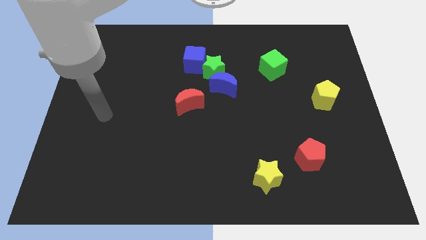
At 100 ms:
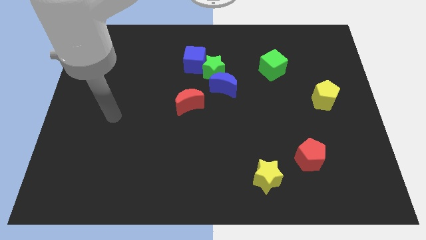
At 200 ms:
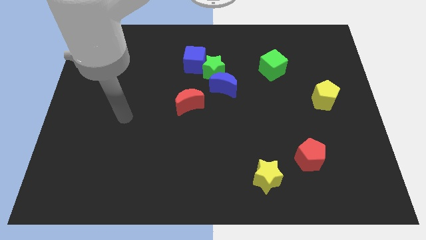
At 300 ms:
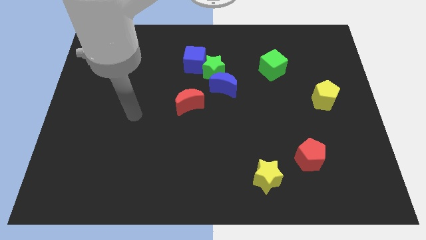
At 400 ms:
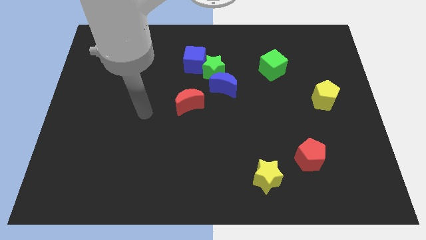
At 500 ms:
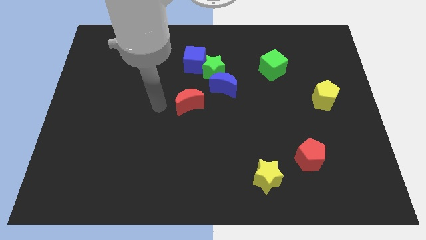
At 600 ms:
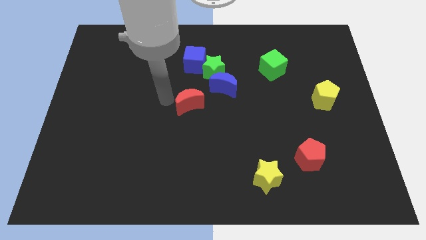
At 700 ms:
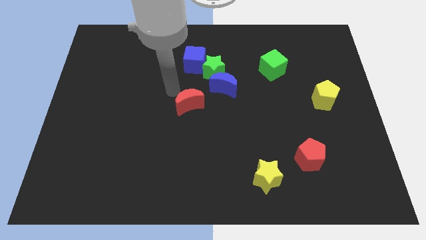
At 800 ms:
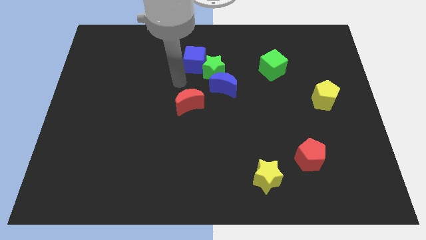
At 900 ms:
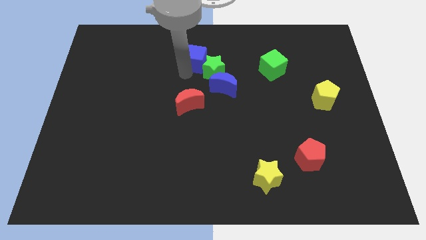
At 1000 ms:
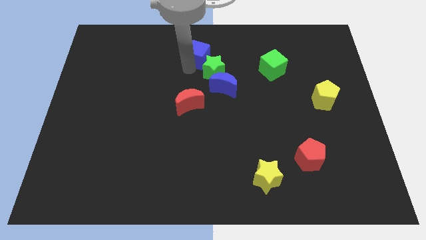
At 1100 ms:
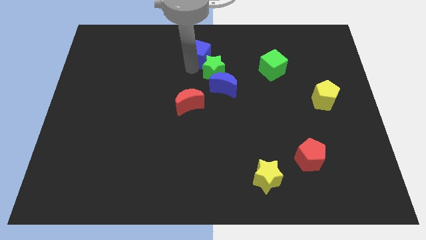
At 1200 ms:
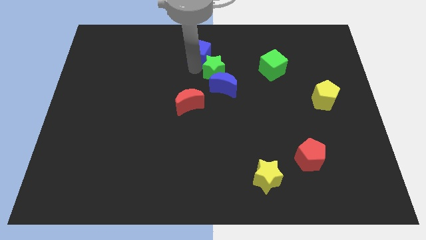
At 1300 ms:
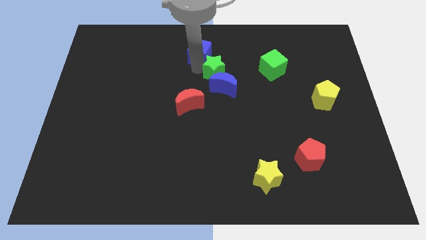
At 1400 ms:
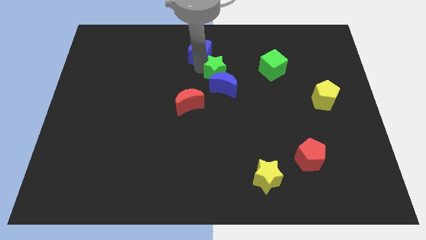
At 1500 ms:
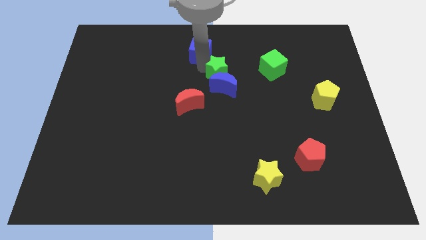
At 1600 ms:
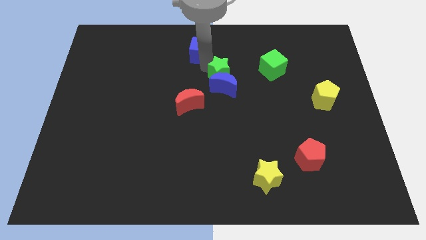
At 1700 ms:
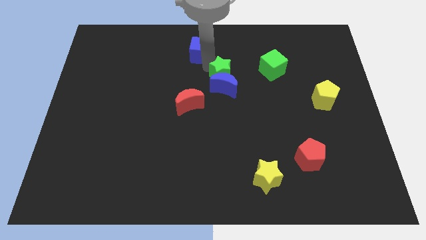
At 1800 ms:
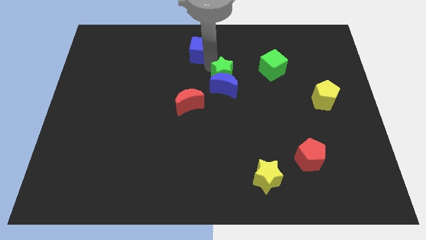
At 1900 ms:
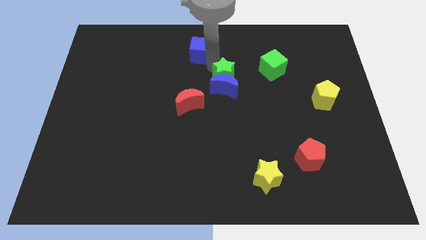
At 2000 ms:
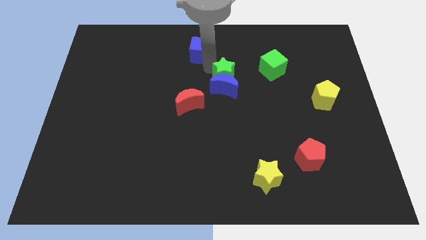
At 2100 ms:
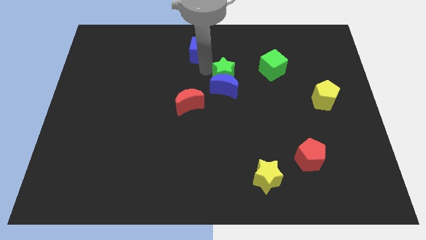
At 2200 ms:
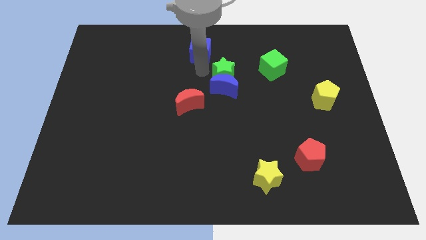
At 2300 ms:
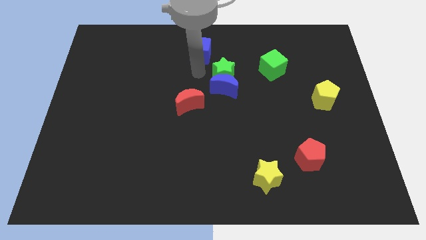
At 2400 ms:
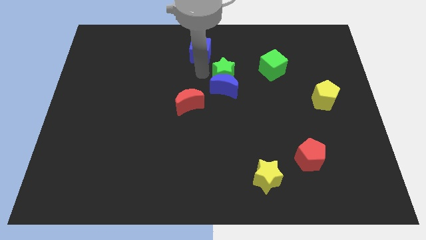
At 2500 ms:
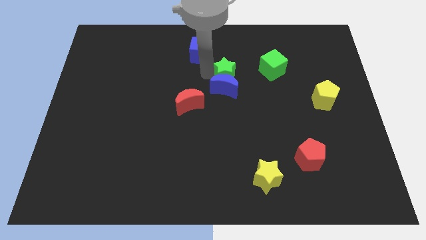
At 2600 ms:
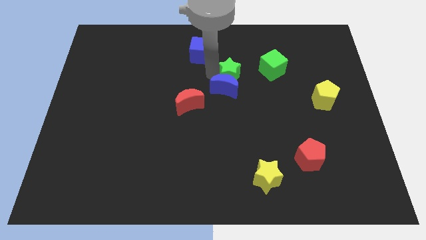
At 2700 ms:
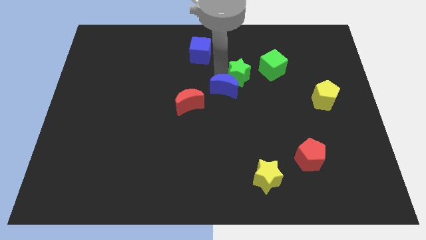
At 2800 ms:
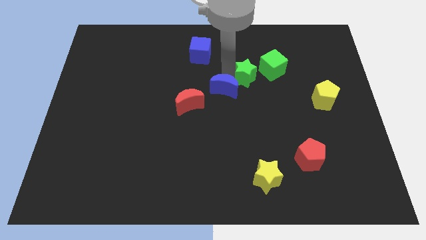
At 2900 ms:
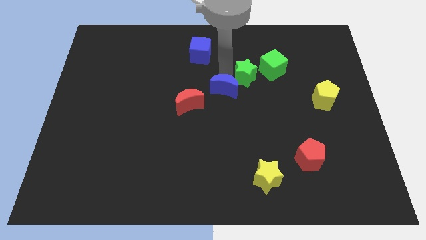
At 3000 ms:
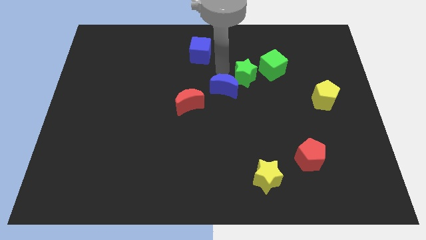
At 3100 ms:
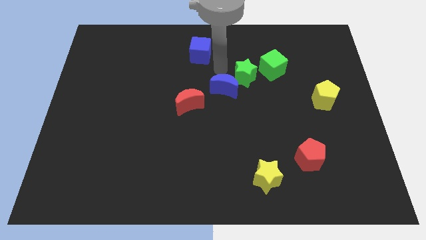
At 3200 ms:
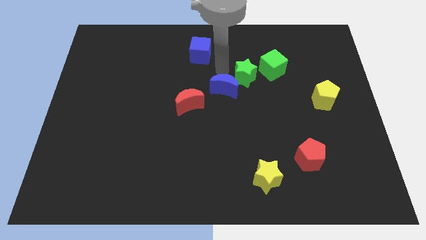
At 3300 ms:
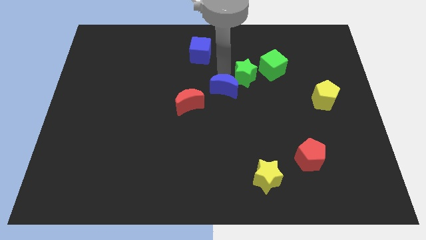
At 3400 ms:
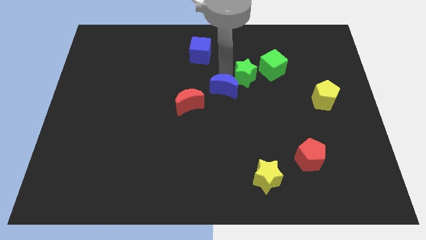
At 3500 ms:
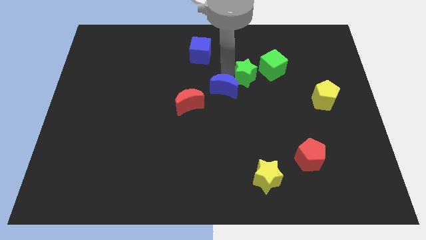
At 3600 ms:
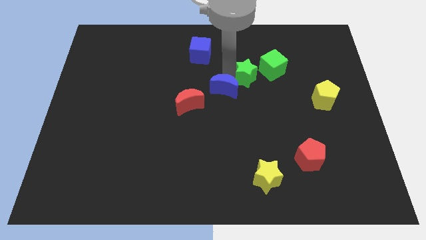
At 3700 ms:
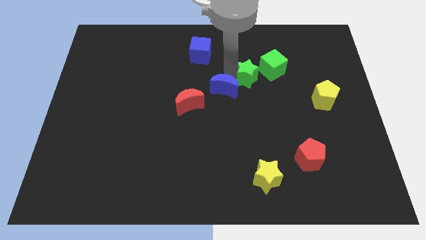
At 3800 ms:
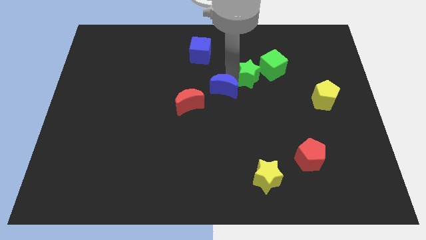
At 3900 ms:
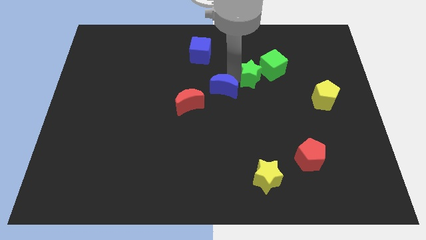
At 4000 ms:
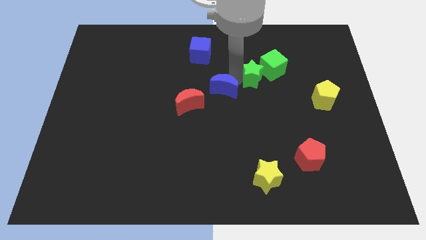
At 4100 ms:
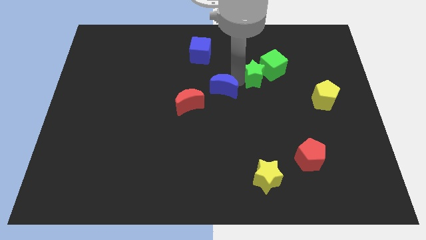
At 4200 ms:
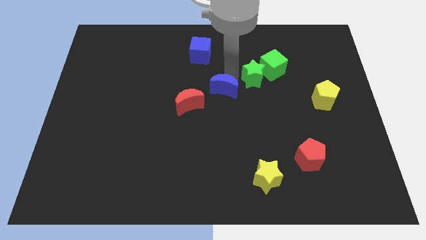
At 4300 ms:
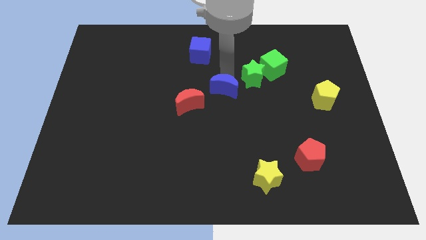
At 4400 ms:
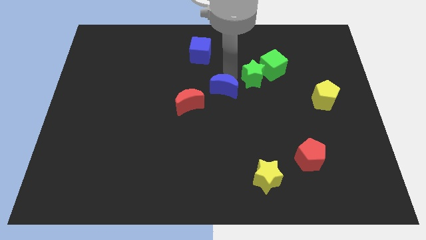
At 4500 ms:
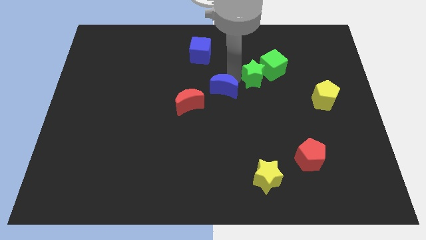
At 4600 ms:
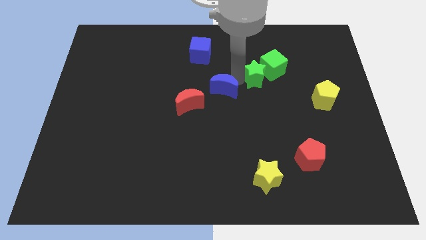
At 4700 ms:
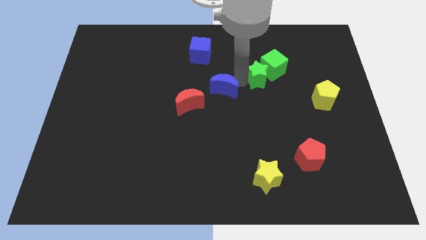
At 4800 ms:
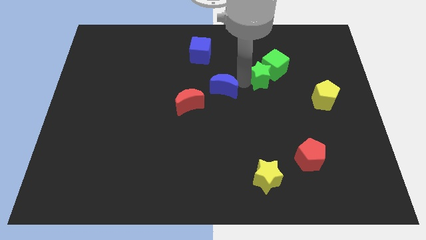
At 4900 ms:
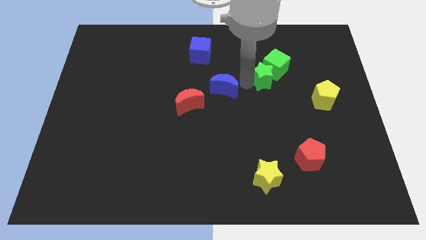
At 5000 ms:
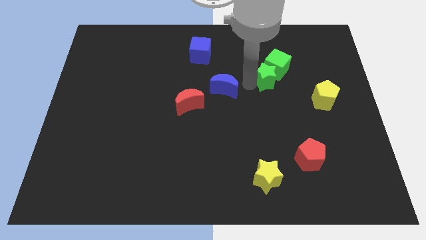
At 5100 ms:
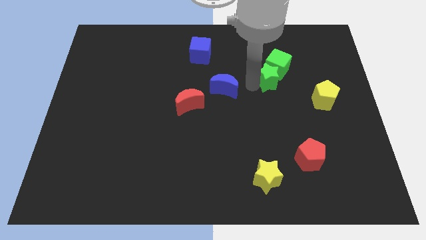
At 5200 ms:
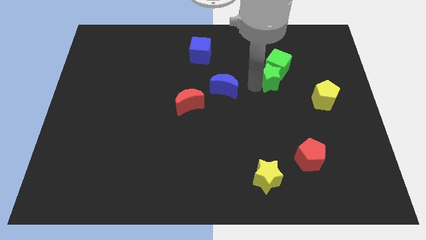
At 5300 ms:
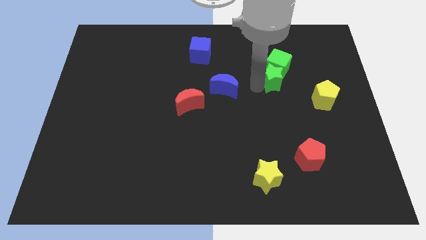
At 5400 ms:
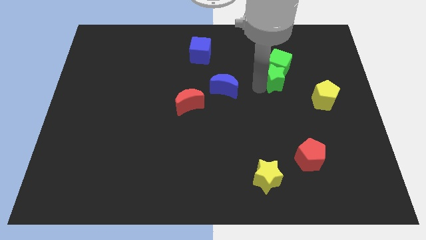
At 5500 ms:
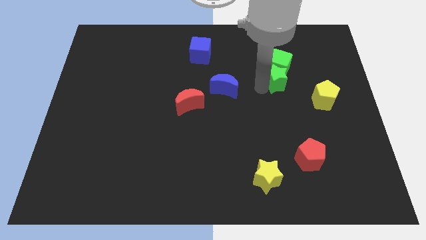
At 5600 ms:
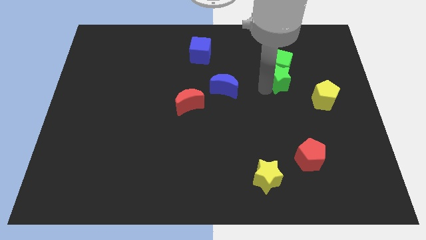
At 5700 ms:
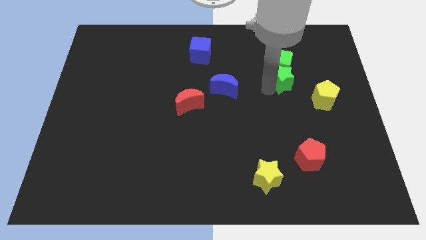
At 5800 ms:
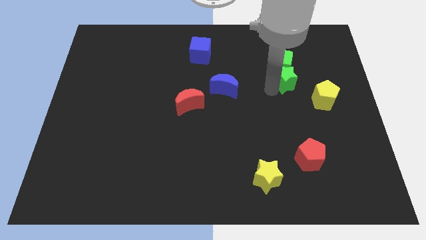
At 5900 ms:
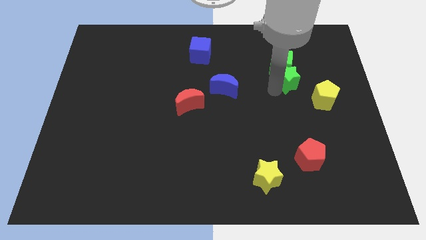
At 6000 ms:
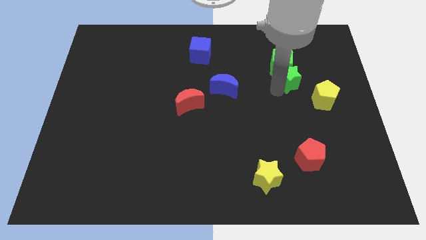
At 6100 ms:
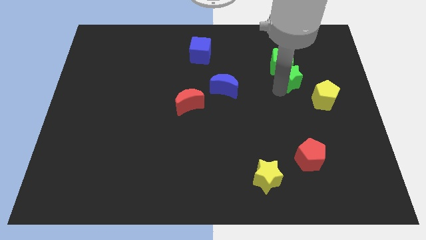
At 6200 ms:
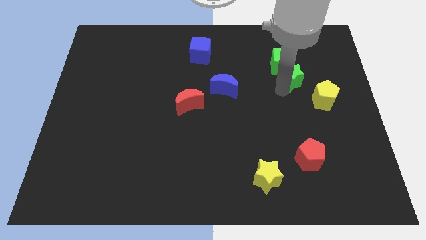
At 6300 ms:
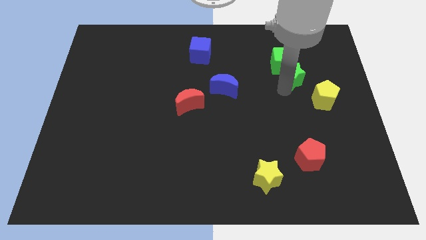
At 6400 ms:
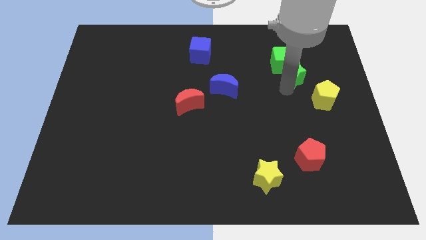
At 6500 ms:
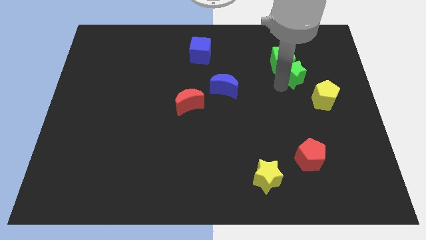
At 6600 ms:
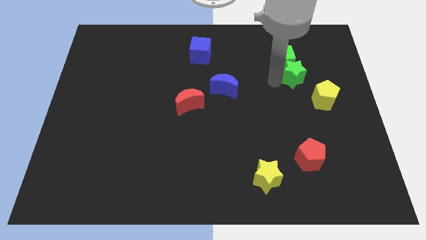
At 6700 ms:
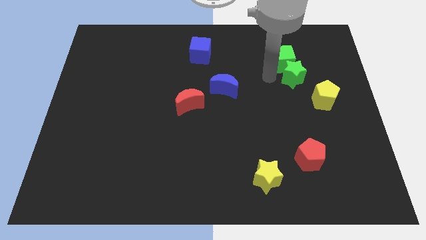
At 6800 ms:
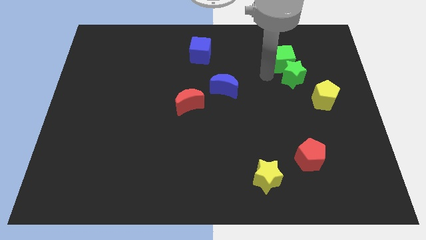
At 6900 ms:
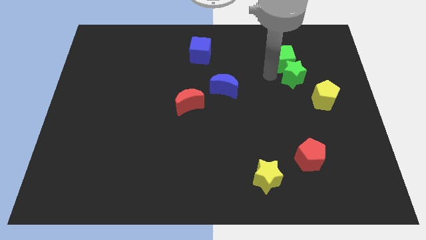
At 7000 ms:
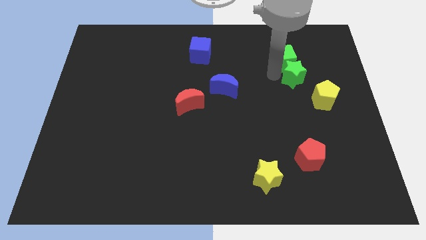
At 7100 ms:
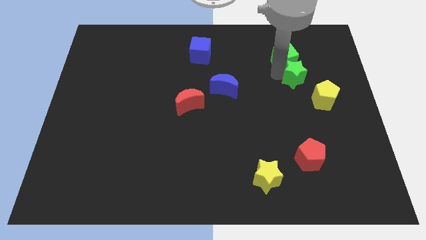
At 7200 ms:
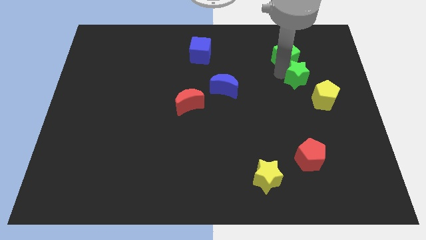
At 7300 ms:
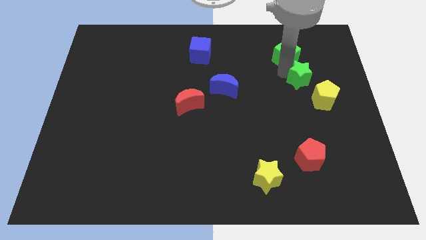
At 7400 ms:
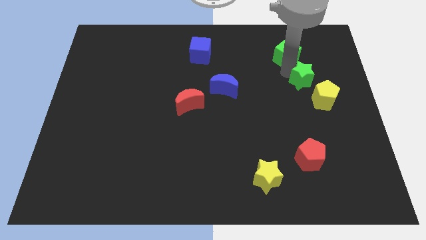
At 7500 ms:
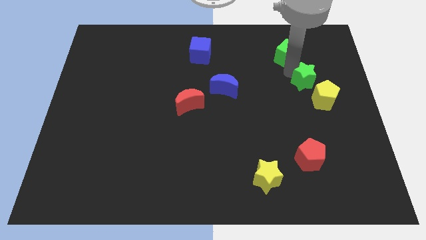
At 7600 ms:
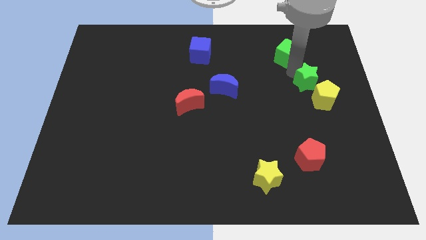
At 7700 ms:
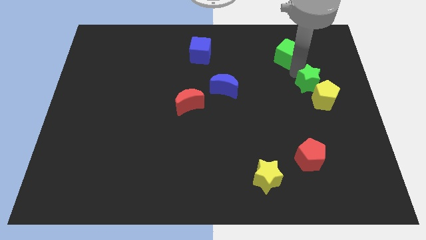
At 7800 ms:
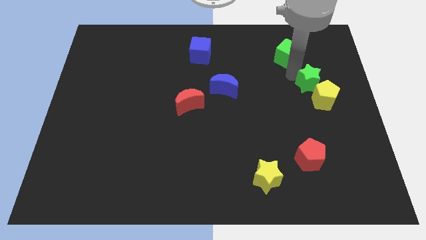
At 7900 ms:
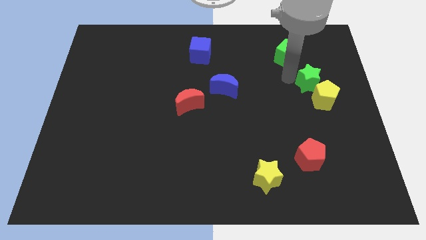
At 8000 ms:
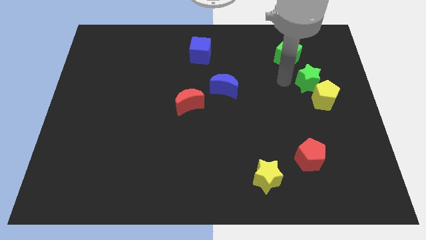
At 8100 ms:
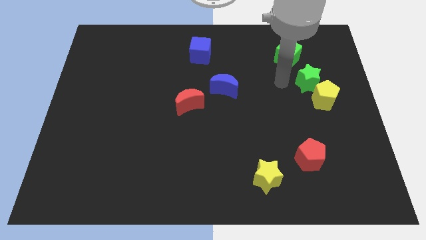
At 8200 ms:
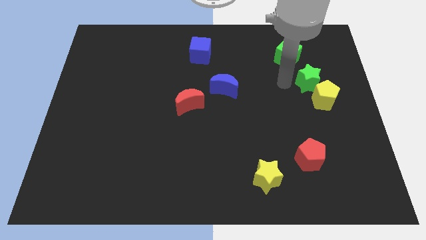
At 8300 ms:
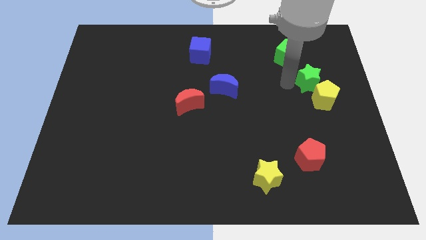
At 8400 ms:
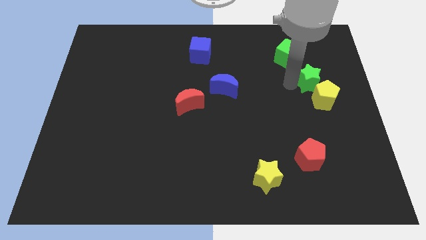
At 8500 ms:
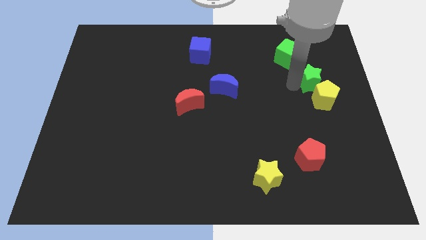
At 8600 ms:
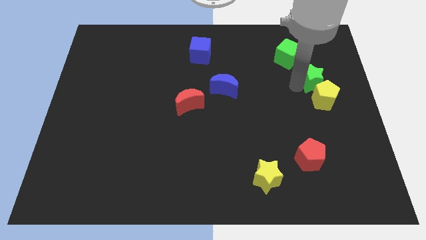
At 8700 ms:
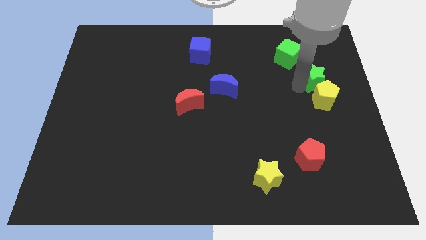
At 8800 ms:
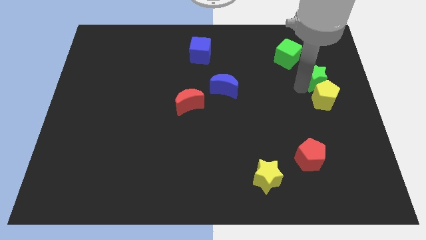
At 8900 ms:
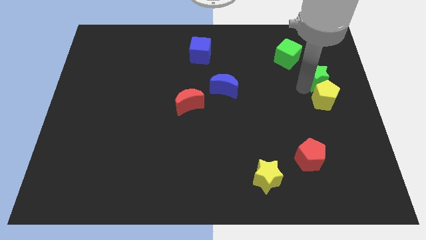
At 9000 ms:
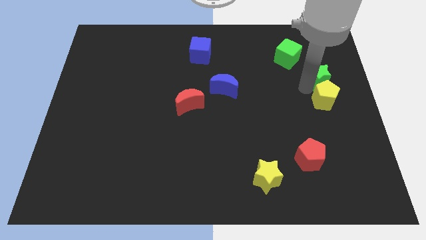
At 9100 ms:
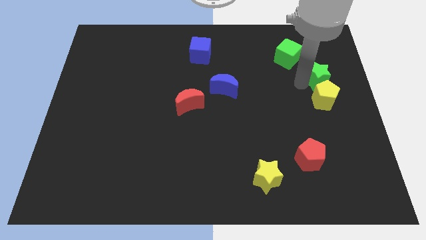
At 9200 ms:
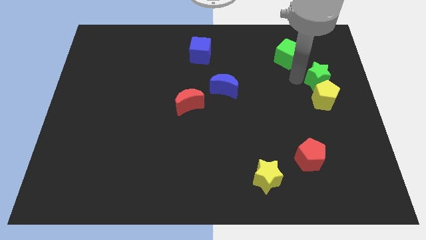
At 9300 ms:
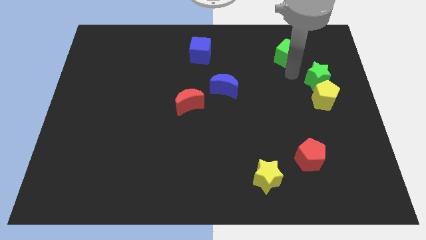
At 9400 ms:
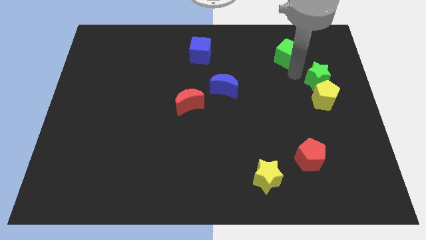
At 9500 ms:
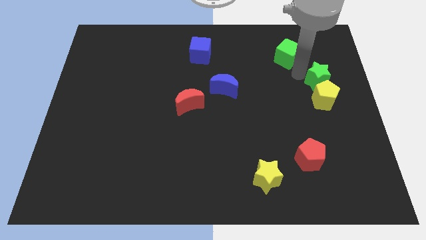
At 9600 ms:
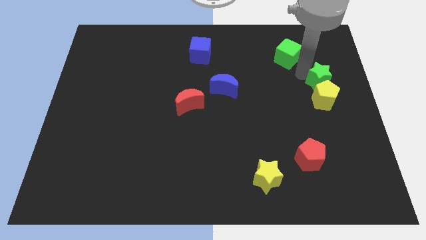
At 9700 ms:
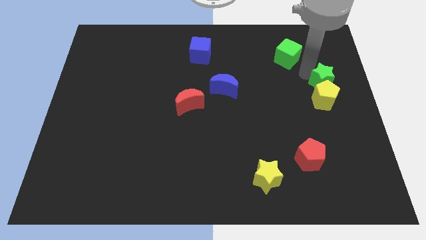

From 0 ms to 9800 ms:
push the green star to the right side
